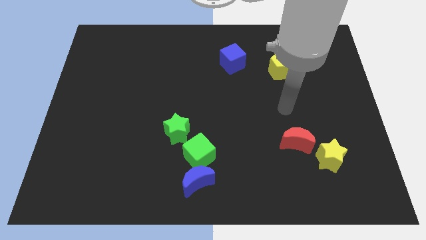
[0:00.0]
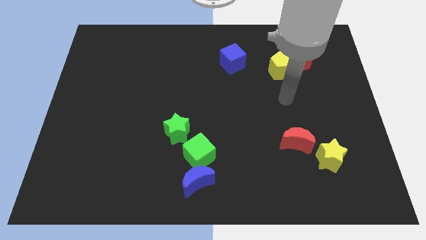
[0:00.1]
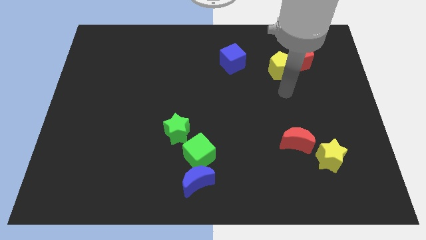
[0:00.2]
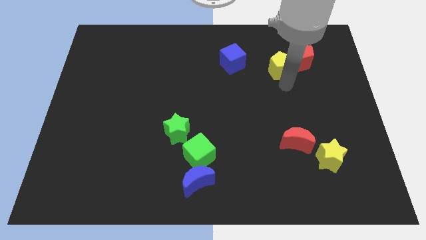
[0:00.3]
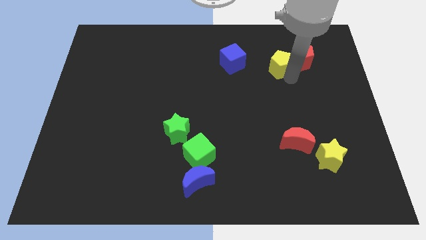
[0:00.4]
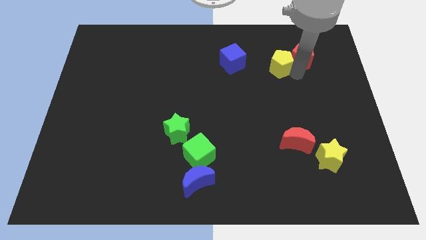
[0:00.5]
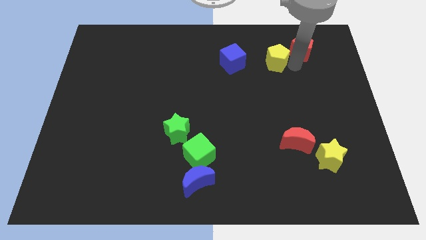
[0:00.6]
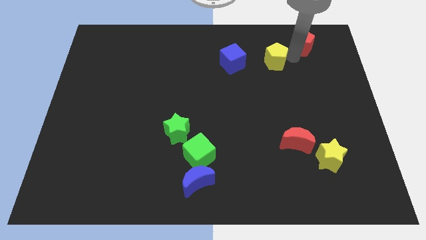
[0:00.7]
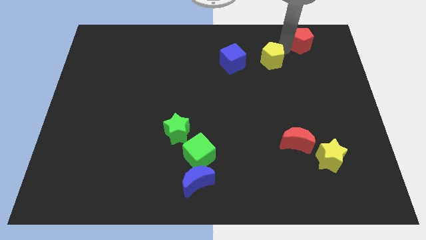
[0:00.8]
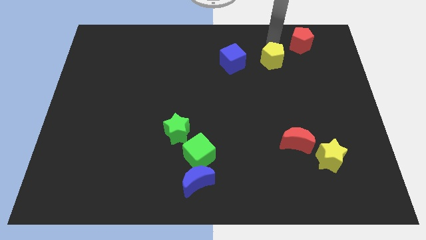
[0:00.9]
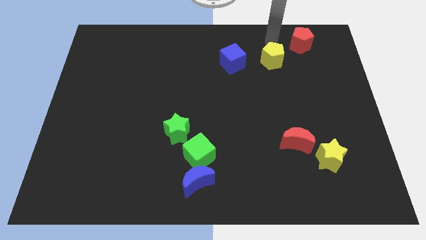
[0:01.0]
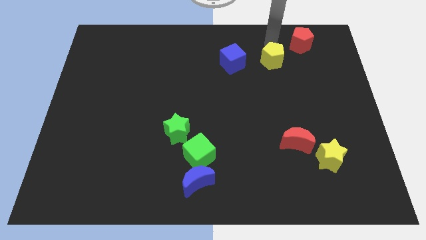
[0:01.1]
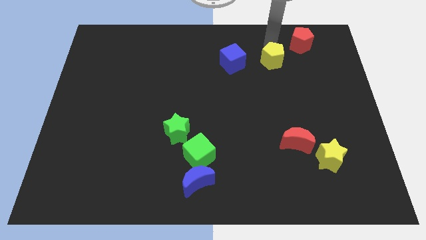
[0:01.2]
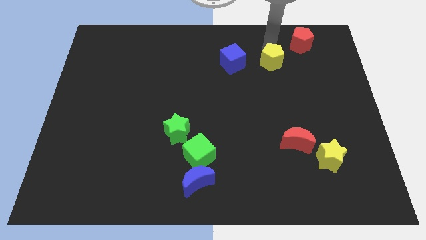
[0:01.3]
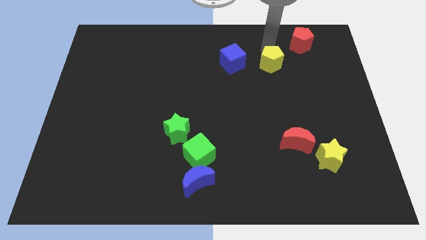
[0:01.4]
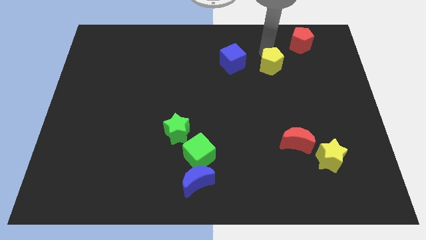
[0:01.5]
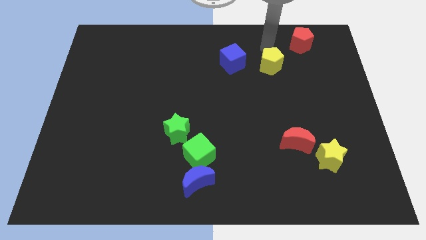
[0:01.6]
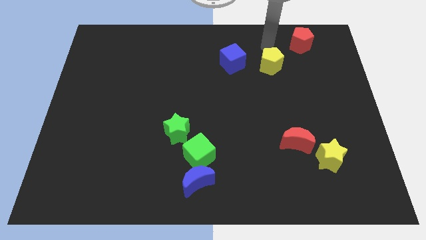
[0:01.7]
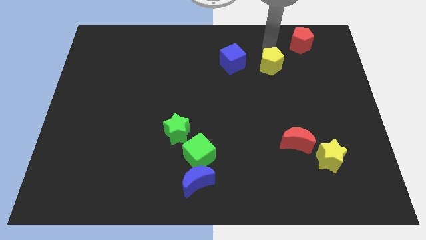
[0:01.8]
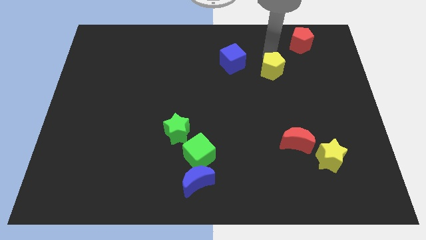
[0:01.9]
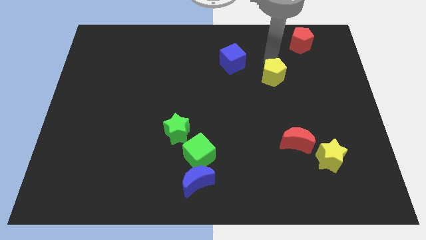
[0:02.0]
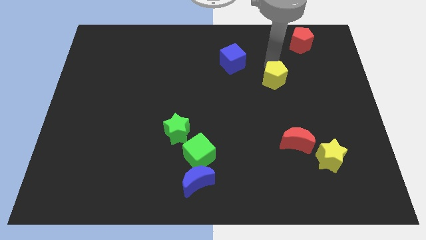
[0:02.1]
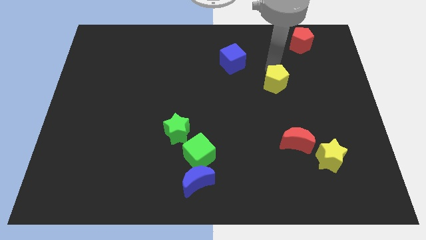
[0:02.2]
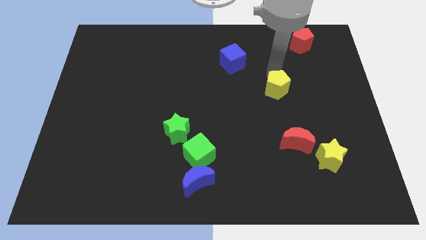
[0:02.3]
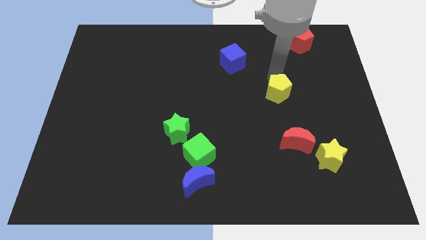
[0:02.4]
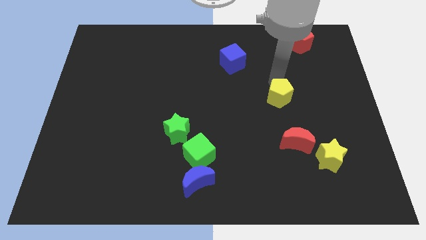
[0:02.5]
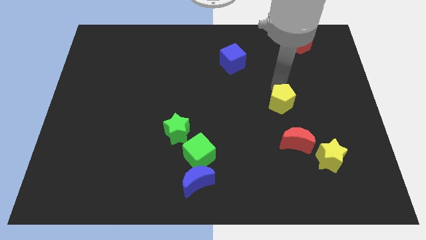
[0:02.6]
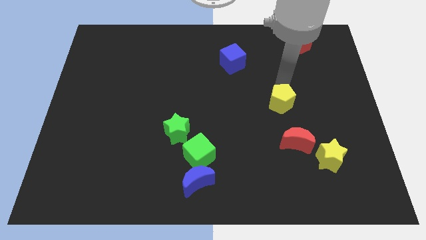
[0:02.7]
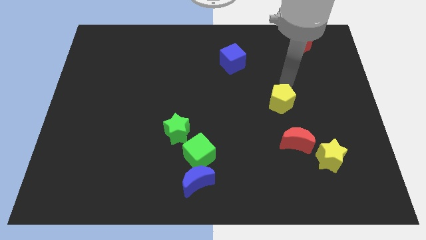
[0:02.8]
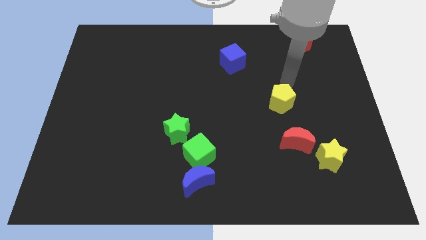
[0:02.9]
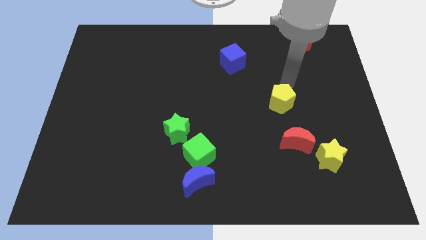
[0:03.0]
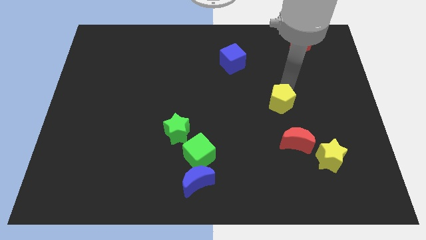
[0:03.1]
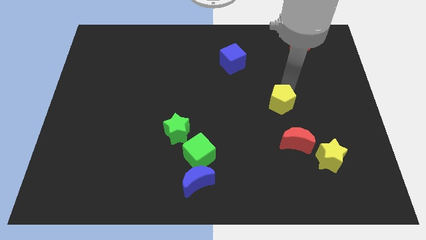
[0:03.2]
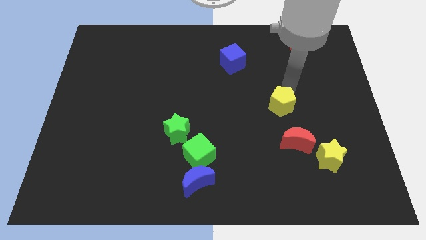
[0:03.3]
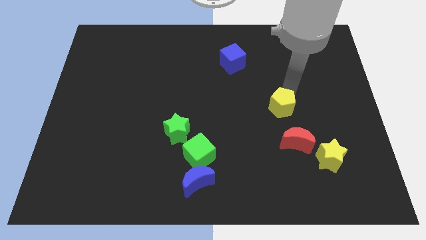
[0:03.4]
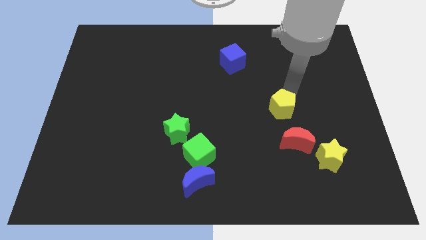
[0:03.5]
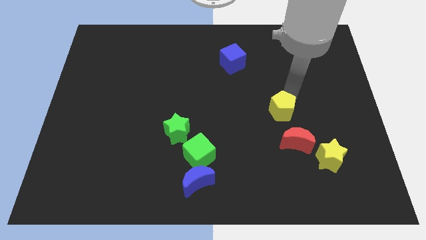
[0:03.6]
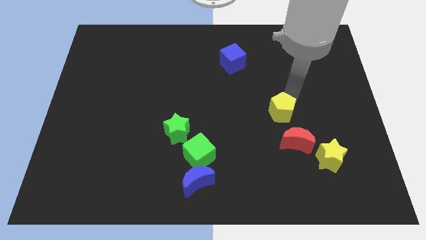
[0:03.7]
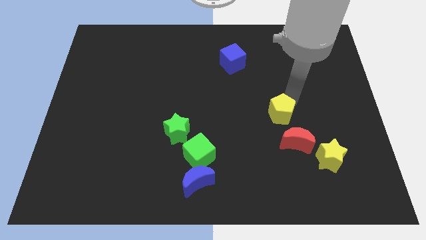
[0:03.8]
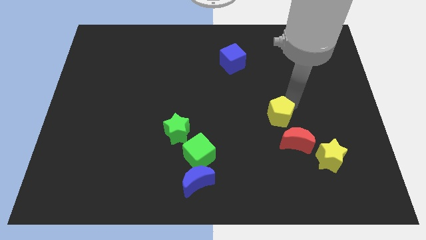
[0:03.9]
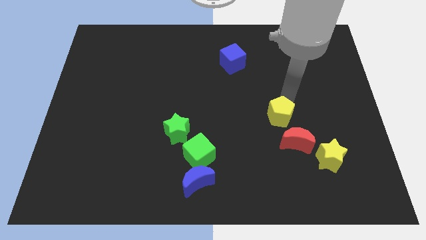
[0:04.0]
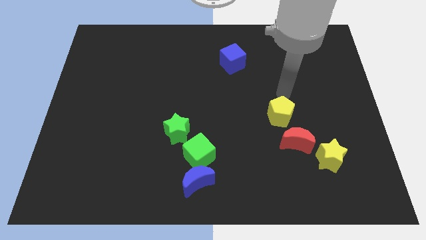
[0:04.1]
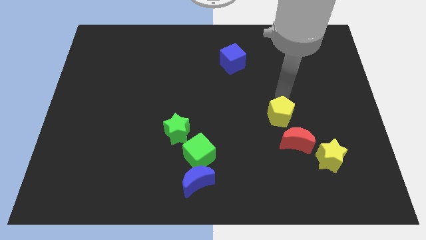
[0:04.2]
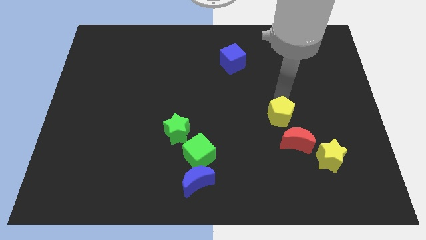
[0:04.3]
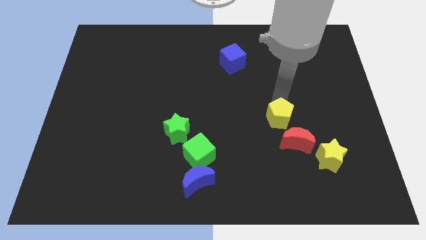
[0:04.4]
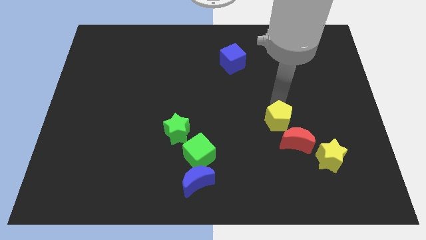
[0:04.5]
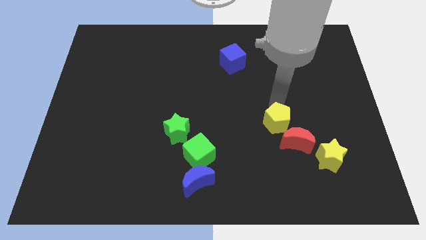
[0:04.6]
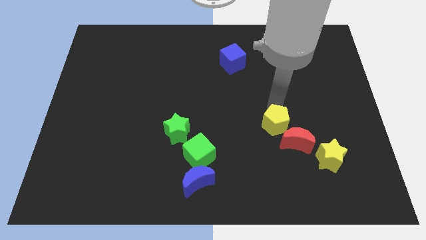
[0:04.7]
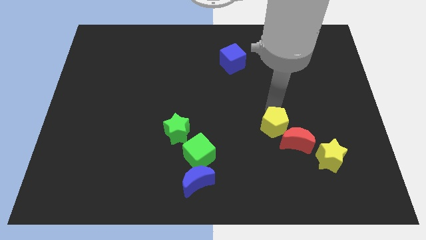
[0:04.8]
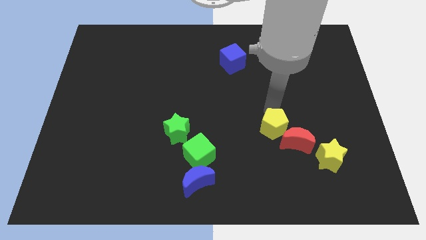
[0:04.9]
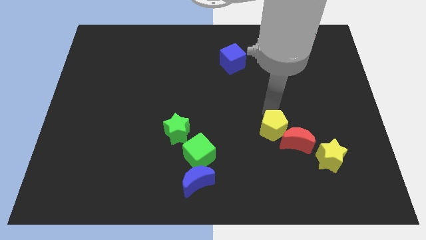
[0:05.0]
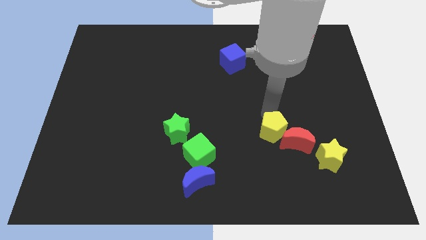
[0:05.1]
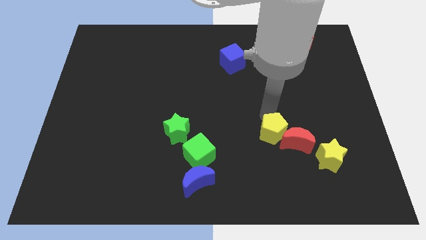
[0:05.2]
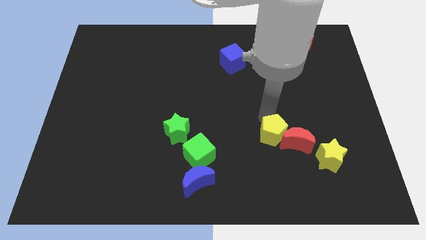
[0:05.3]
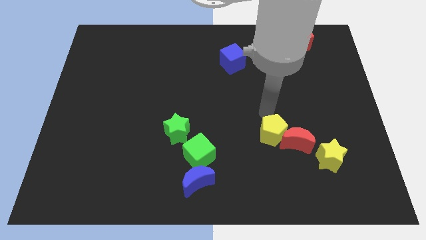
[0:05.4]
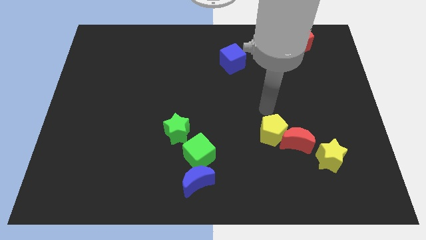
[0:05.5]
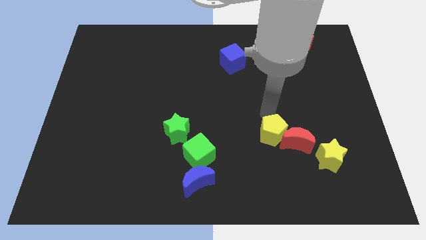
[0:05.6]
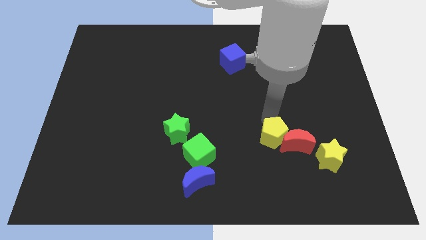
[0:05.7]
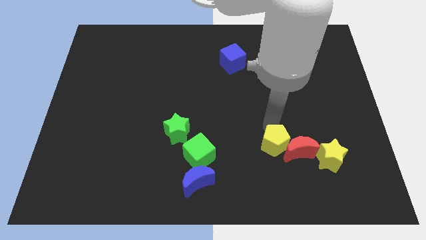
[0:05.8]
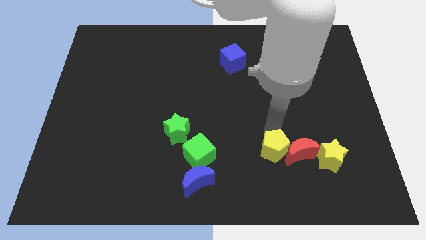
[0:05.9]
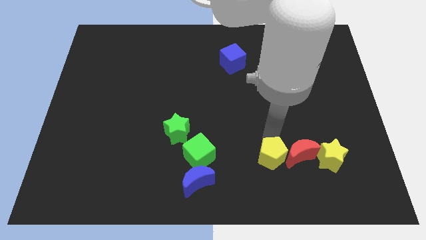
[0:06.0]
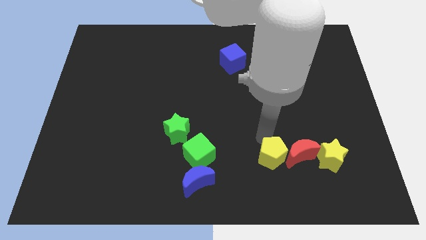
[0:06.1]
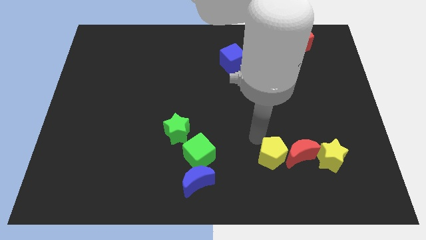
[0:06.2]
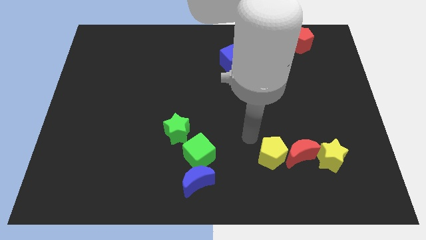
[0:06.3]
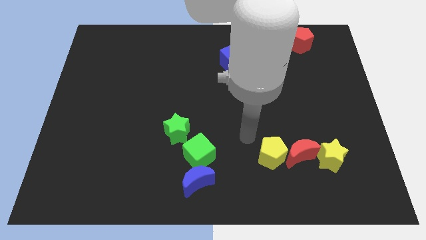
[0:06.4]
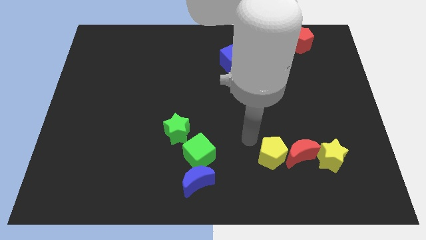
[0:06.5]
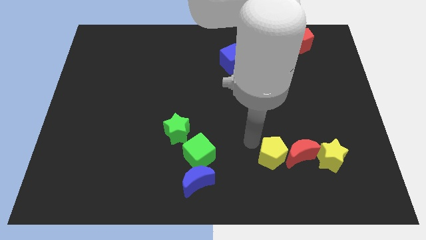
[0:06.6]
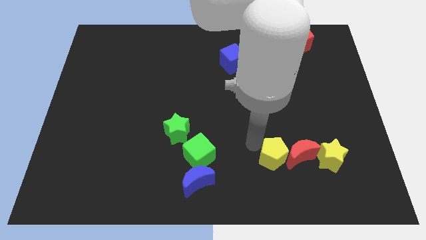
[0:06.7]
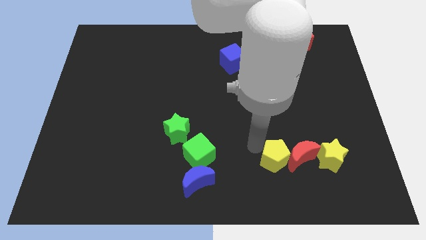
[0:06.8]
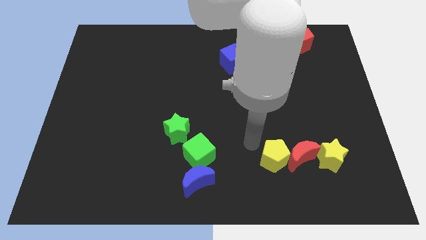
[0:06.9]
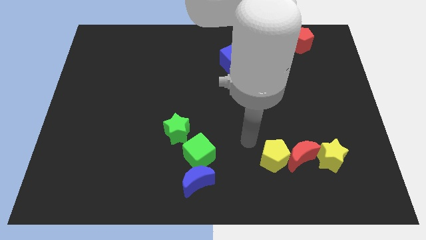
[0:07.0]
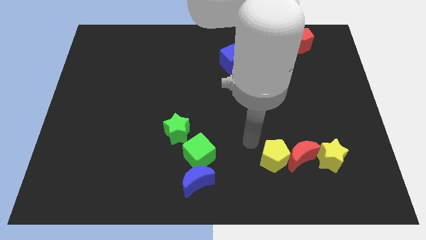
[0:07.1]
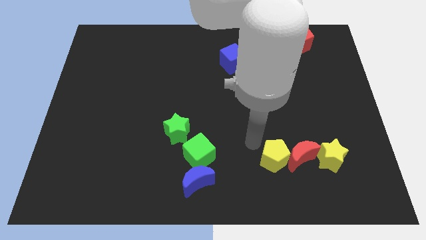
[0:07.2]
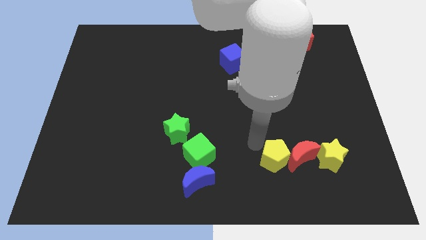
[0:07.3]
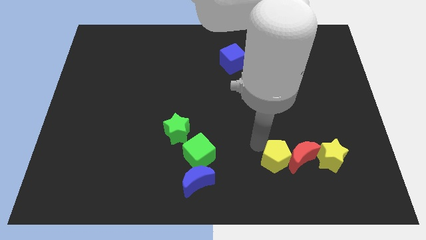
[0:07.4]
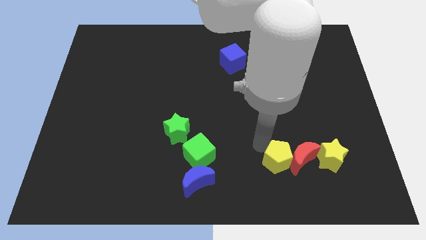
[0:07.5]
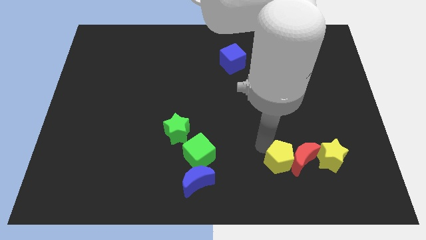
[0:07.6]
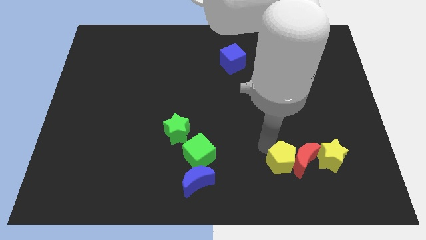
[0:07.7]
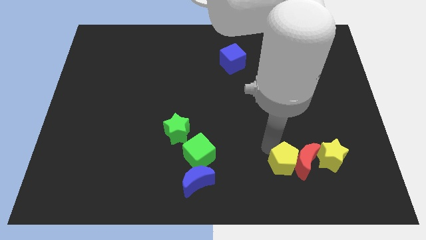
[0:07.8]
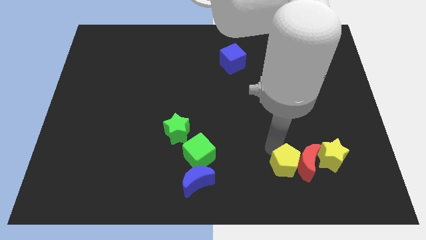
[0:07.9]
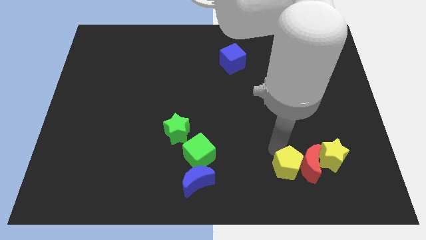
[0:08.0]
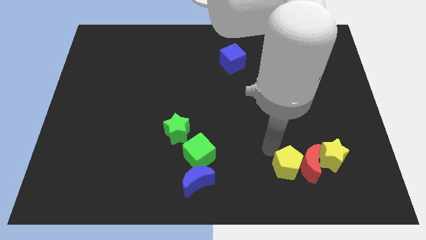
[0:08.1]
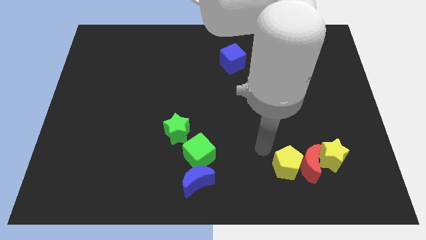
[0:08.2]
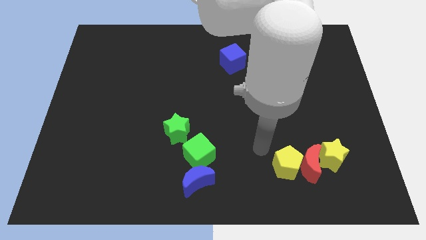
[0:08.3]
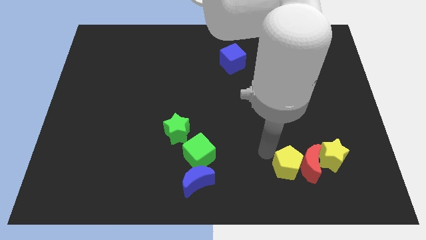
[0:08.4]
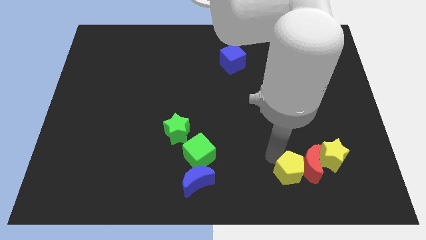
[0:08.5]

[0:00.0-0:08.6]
slide the yellow pentagon to the bottom left side of the yellow star
